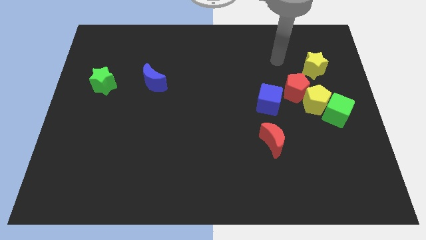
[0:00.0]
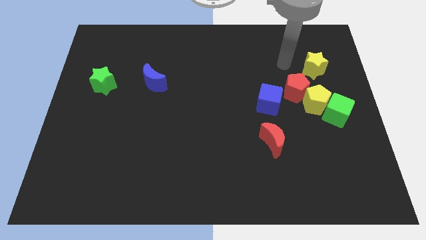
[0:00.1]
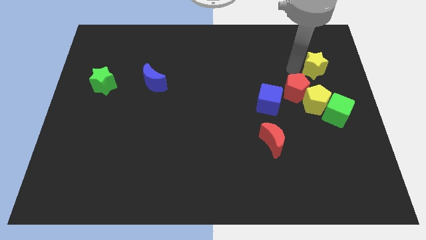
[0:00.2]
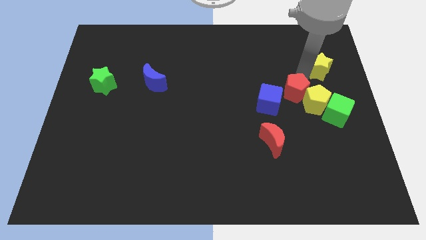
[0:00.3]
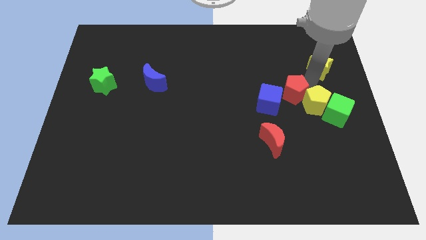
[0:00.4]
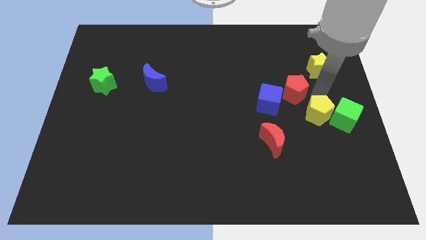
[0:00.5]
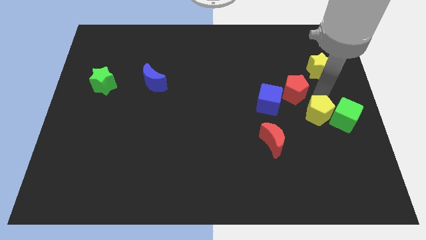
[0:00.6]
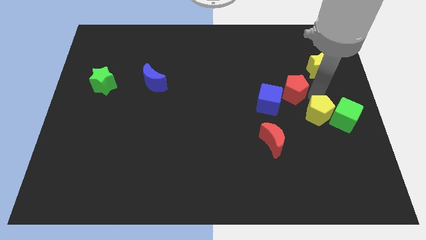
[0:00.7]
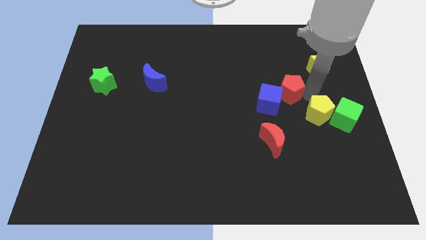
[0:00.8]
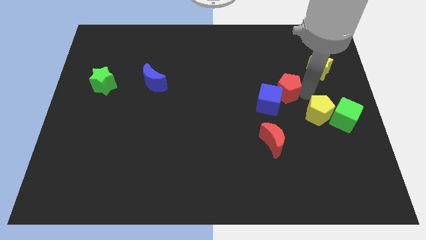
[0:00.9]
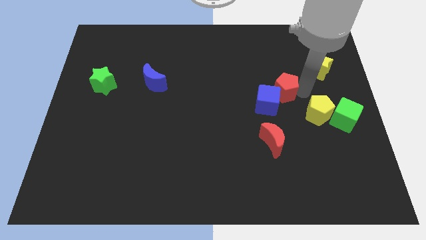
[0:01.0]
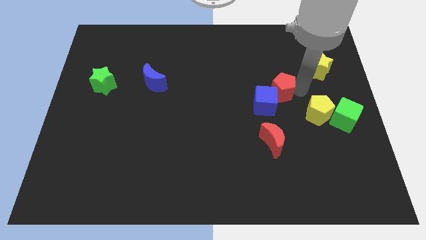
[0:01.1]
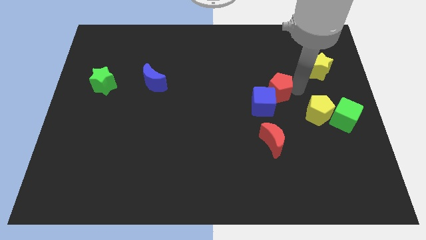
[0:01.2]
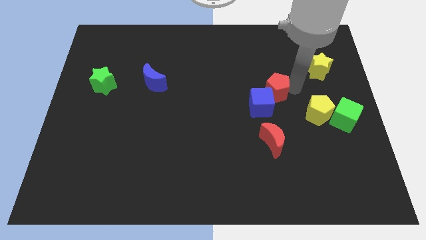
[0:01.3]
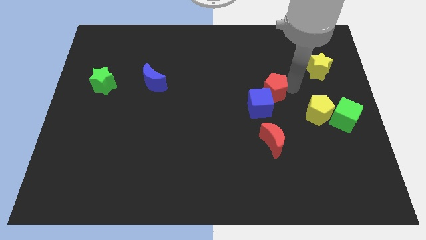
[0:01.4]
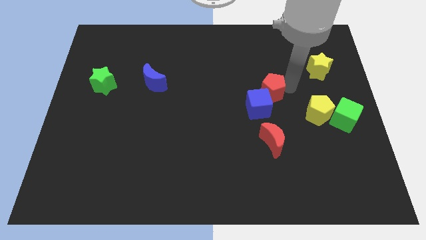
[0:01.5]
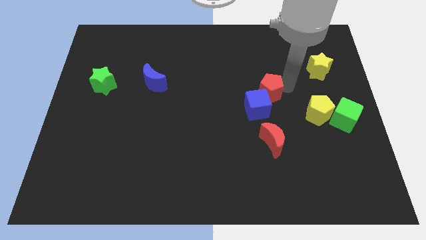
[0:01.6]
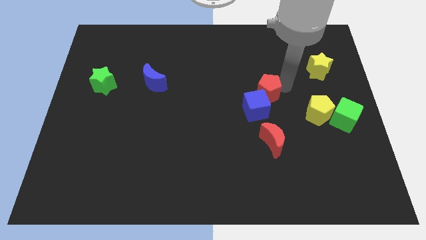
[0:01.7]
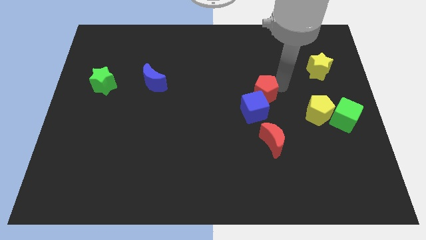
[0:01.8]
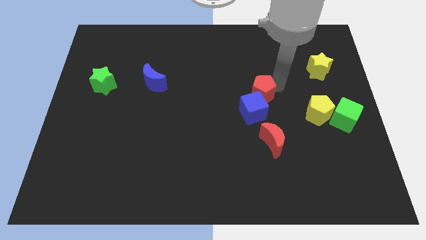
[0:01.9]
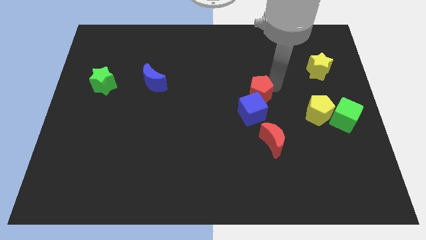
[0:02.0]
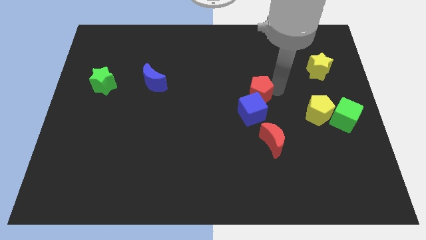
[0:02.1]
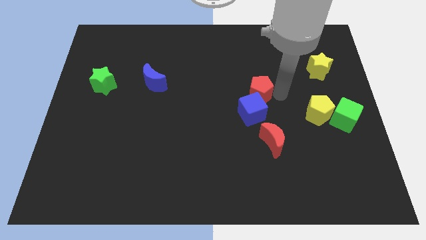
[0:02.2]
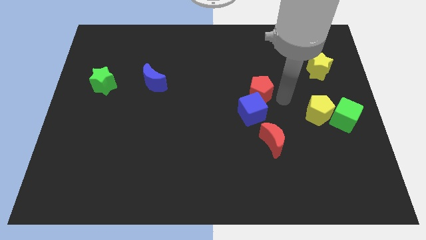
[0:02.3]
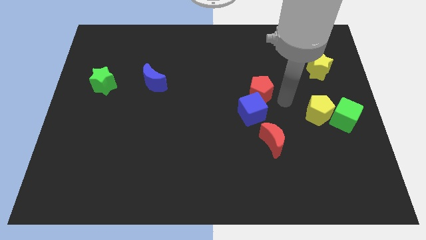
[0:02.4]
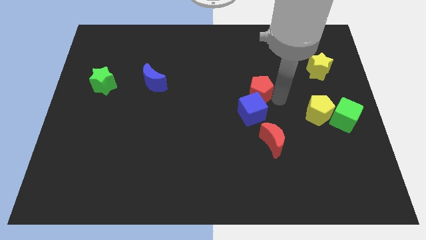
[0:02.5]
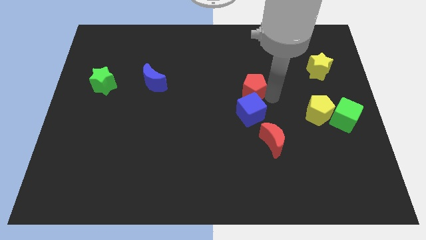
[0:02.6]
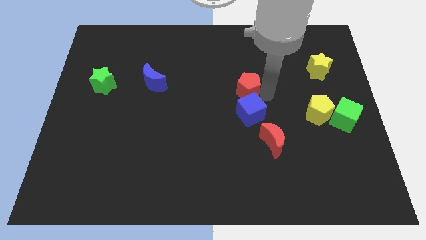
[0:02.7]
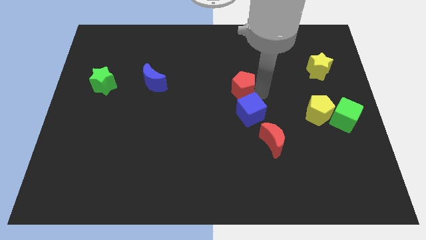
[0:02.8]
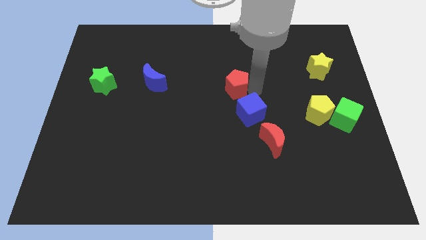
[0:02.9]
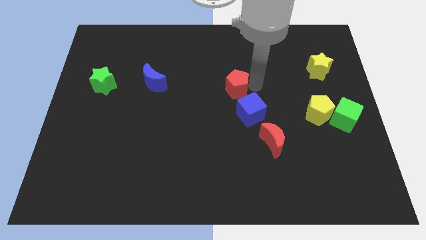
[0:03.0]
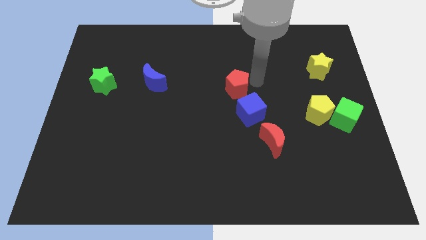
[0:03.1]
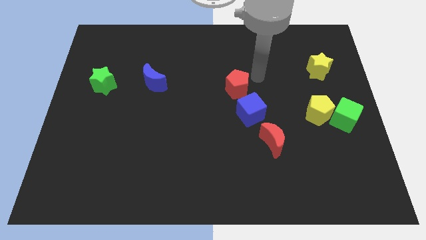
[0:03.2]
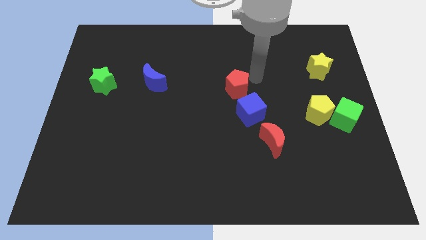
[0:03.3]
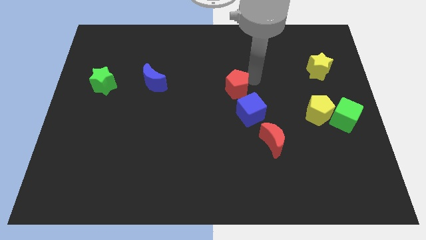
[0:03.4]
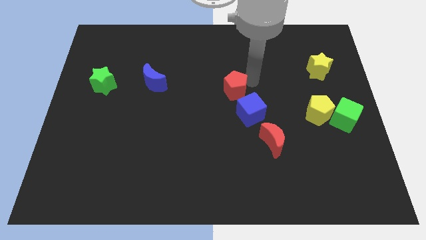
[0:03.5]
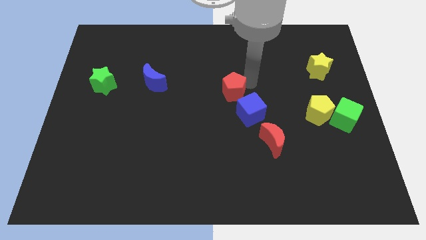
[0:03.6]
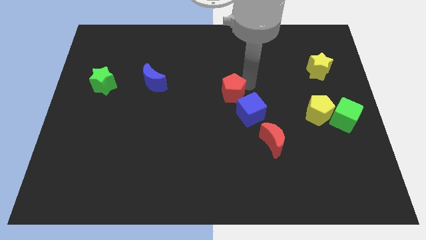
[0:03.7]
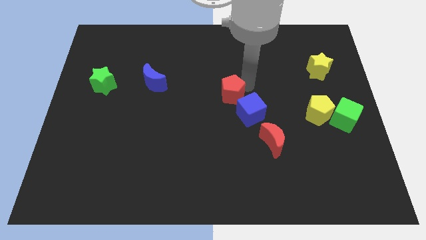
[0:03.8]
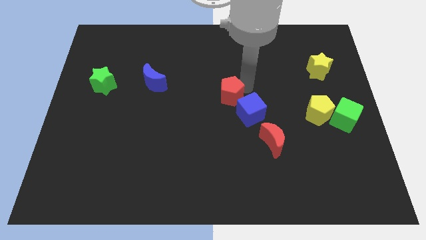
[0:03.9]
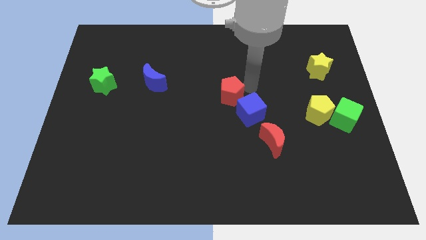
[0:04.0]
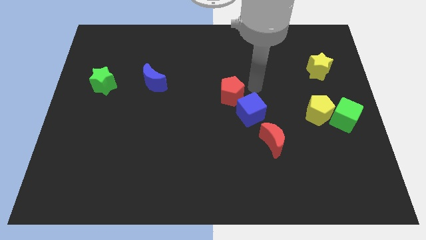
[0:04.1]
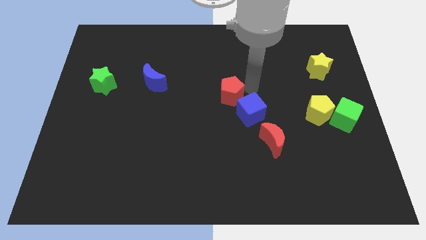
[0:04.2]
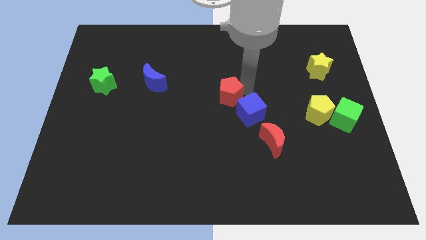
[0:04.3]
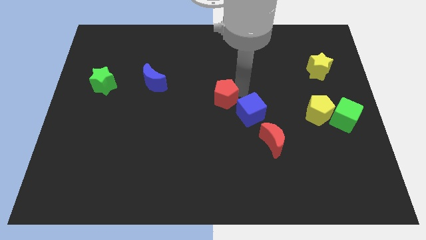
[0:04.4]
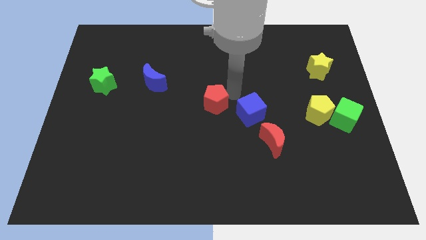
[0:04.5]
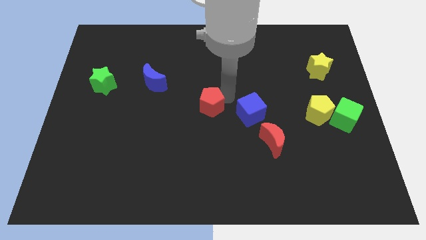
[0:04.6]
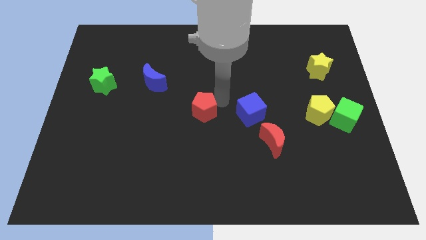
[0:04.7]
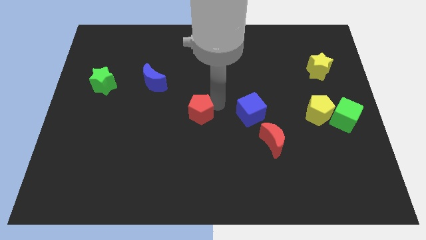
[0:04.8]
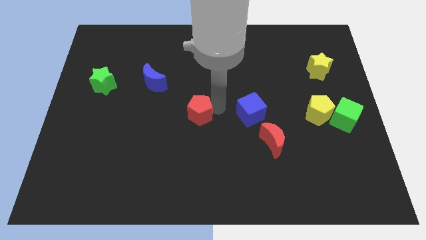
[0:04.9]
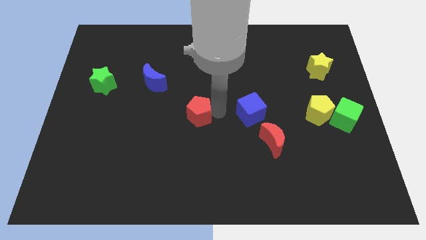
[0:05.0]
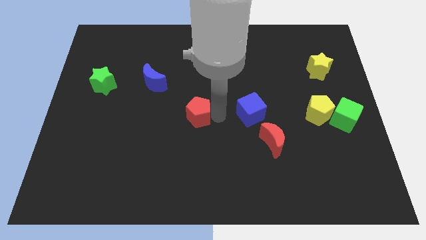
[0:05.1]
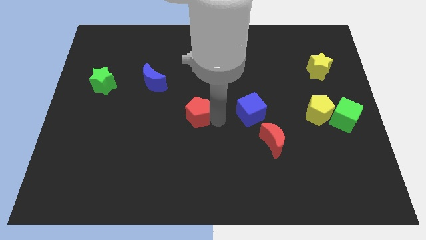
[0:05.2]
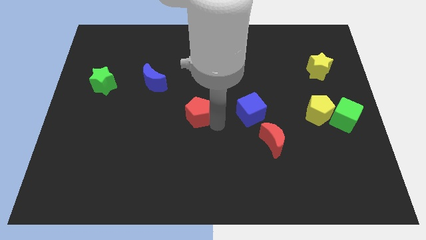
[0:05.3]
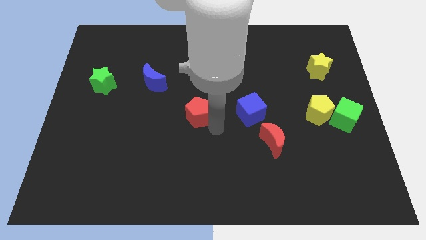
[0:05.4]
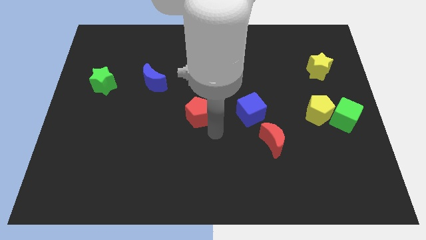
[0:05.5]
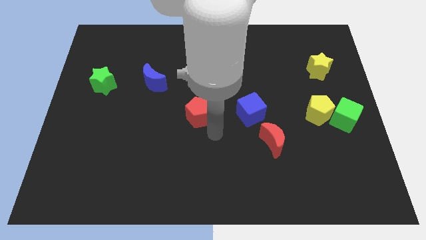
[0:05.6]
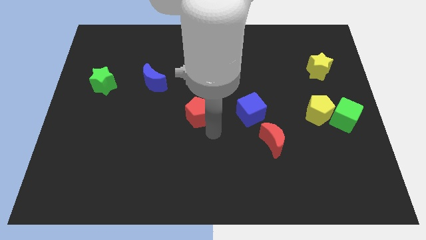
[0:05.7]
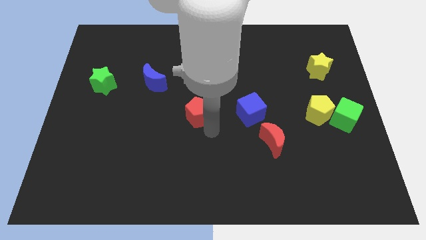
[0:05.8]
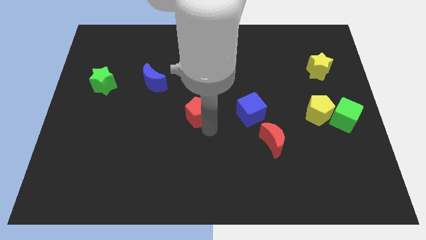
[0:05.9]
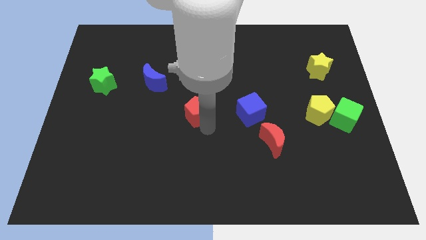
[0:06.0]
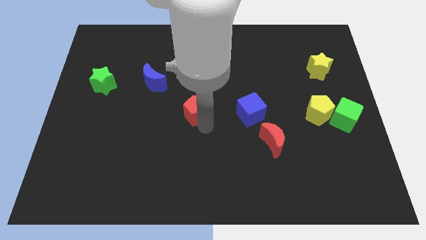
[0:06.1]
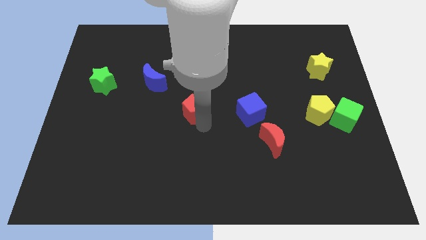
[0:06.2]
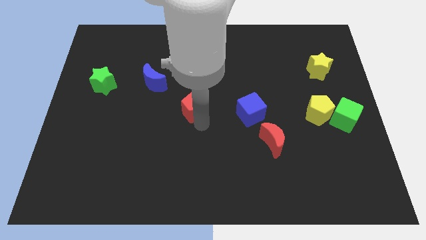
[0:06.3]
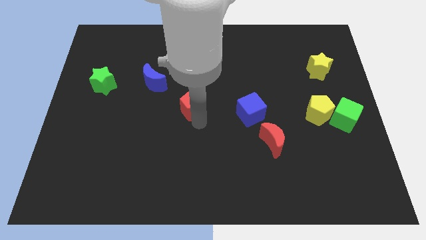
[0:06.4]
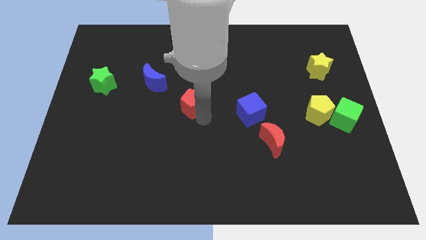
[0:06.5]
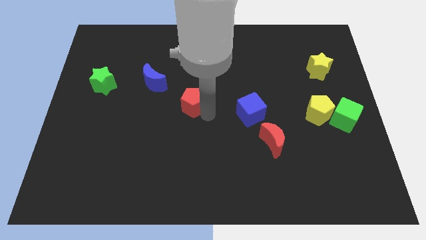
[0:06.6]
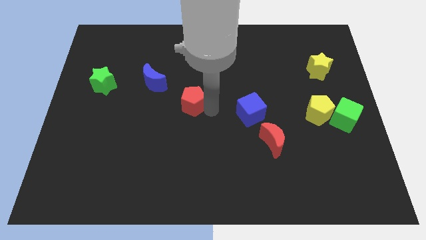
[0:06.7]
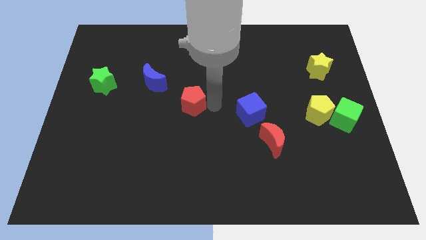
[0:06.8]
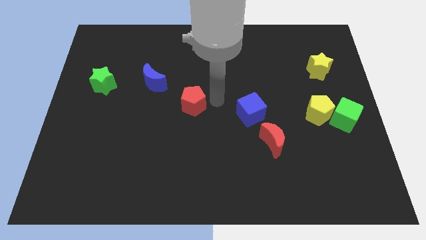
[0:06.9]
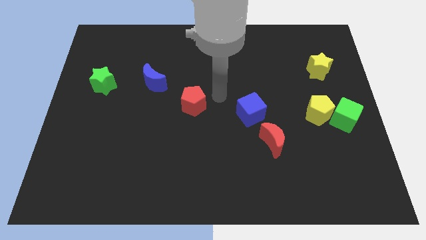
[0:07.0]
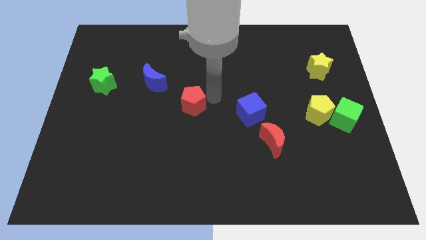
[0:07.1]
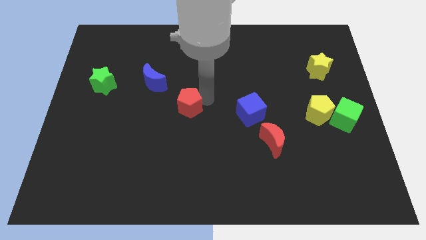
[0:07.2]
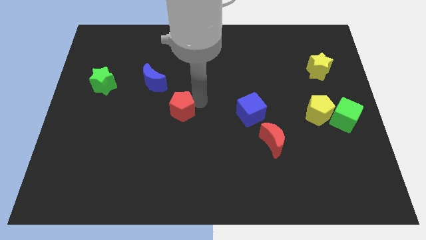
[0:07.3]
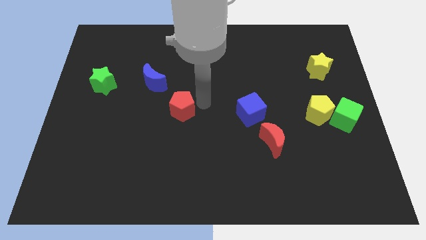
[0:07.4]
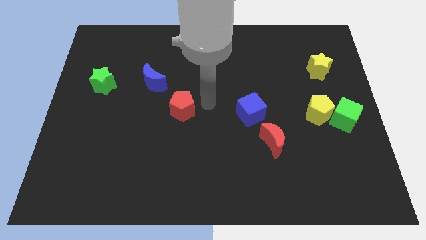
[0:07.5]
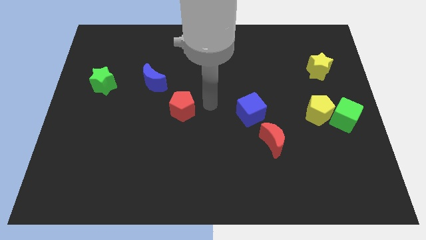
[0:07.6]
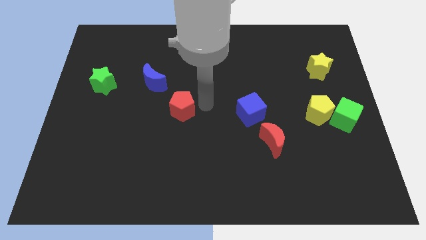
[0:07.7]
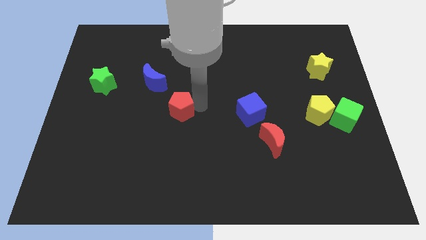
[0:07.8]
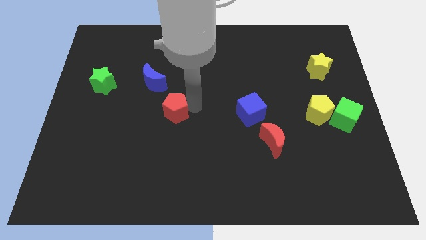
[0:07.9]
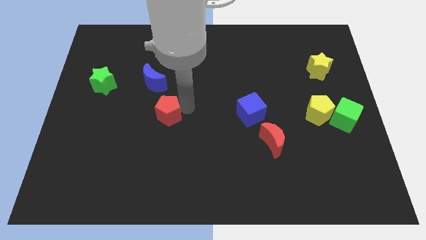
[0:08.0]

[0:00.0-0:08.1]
put the red pentagon to the bottom of the blue moon
